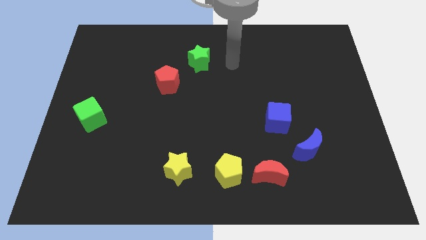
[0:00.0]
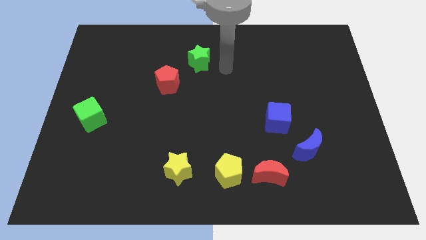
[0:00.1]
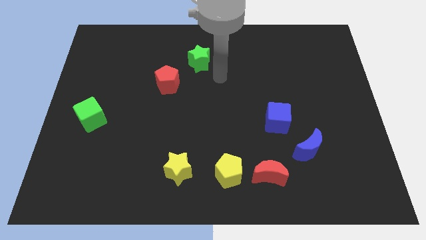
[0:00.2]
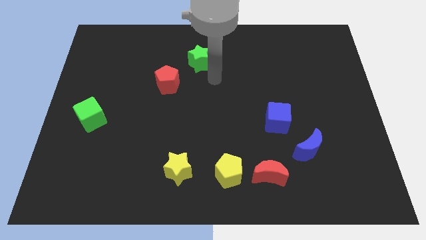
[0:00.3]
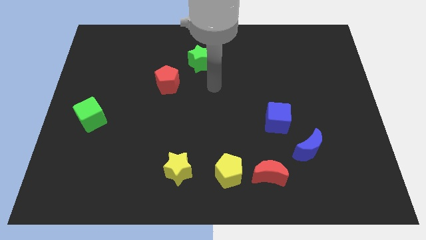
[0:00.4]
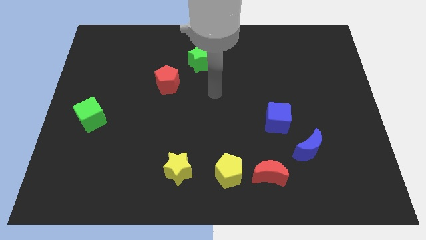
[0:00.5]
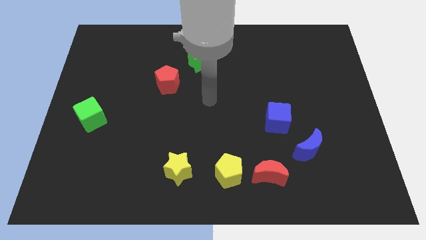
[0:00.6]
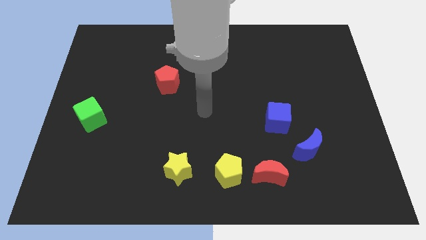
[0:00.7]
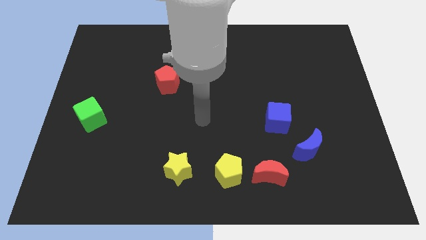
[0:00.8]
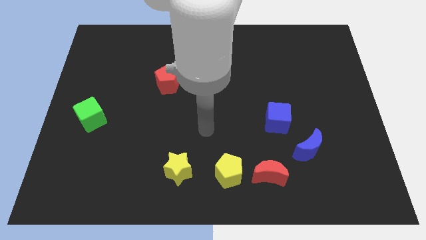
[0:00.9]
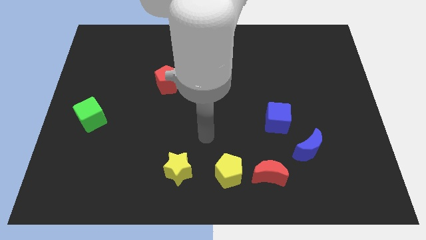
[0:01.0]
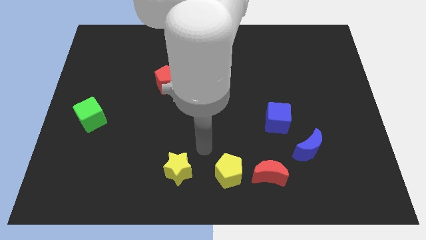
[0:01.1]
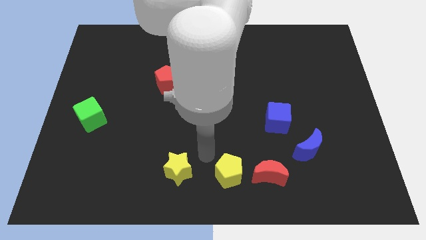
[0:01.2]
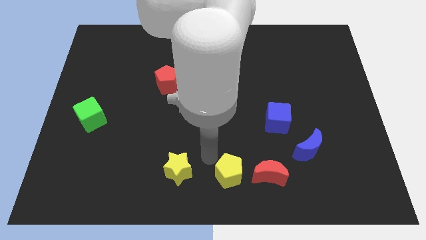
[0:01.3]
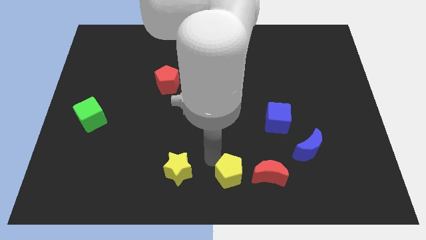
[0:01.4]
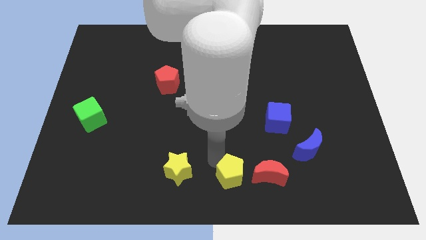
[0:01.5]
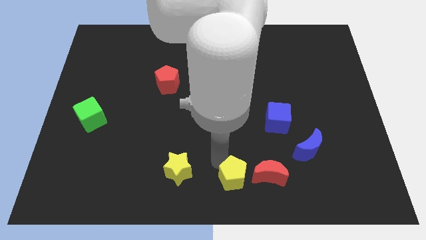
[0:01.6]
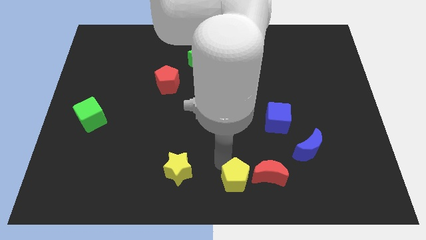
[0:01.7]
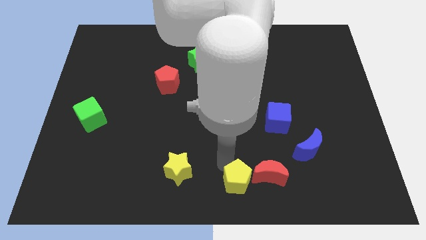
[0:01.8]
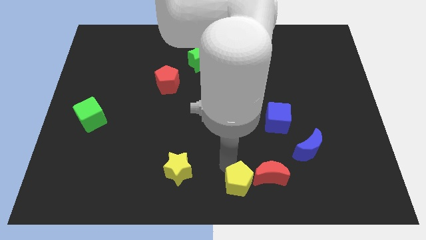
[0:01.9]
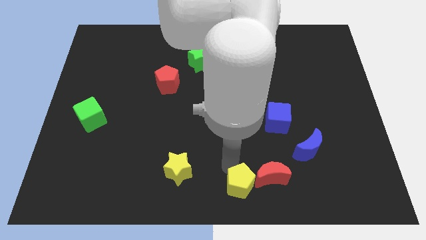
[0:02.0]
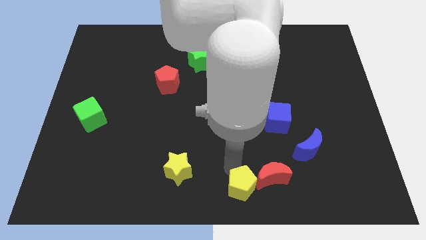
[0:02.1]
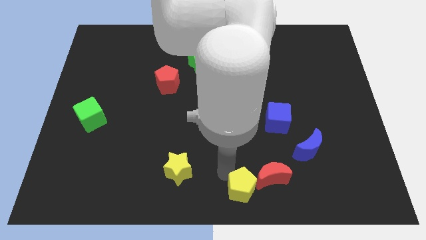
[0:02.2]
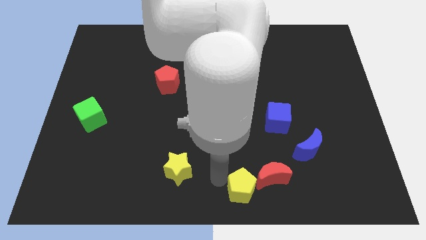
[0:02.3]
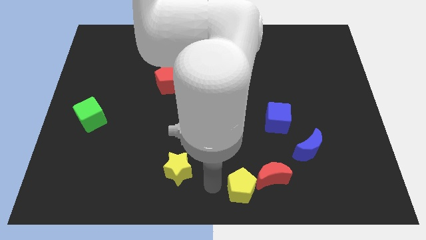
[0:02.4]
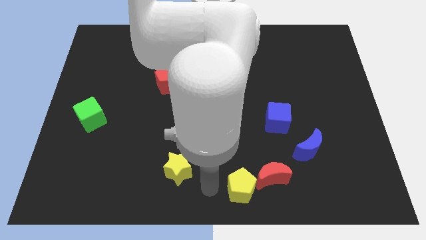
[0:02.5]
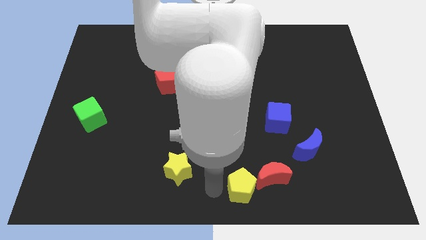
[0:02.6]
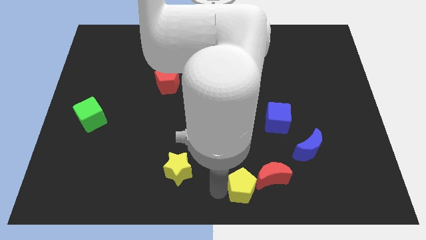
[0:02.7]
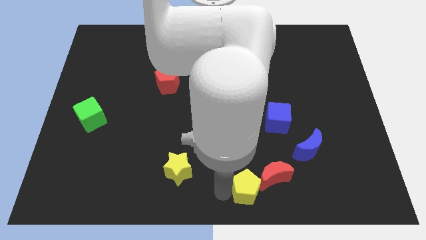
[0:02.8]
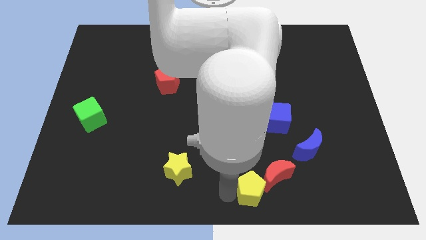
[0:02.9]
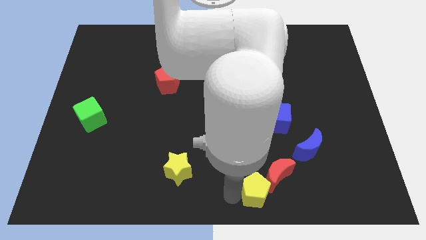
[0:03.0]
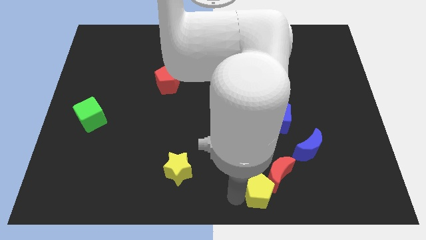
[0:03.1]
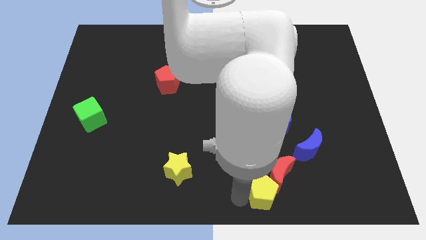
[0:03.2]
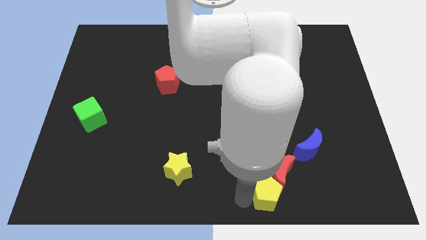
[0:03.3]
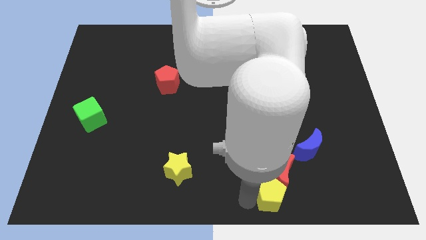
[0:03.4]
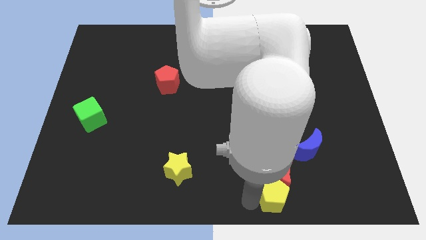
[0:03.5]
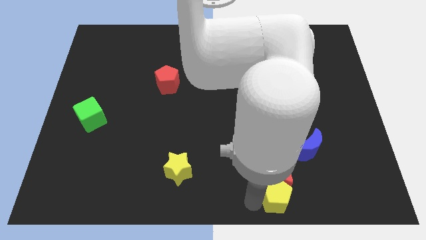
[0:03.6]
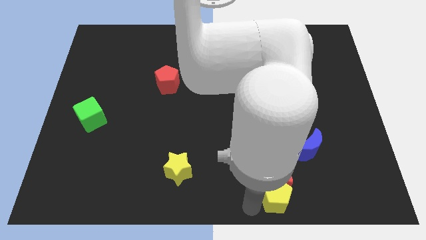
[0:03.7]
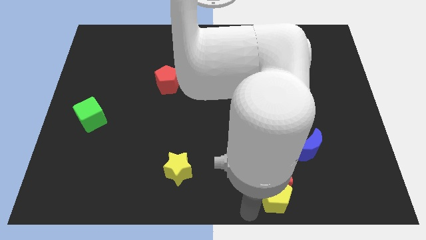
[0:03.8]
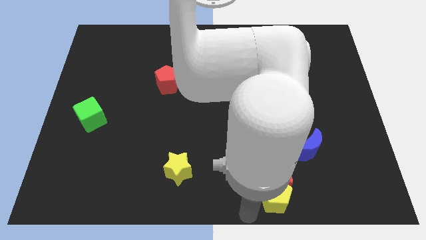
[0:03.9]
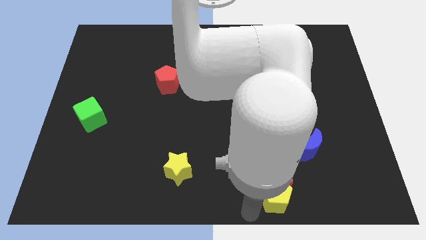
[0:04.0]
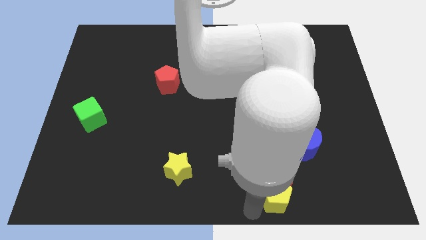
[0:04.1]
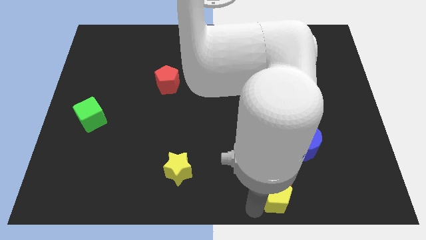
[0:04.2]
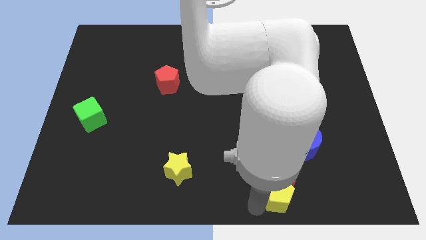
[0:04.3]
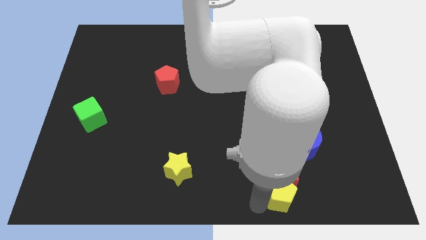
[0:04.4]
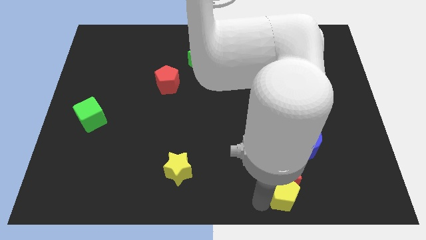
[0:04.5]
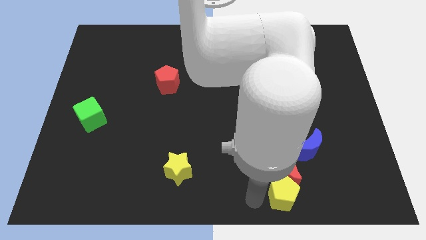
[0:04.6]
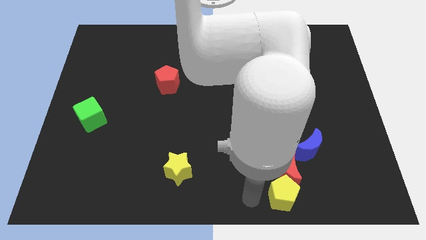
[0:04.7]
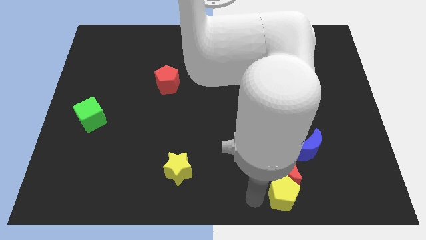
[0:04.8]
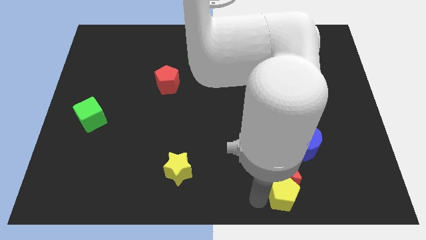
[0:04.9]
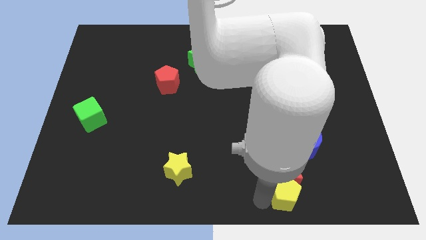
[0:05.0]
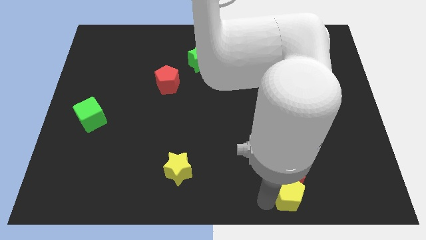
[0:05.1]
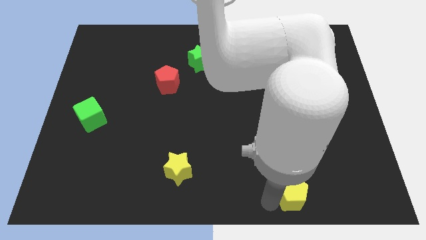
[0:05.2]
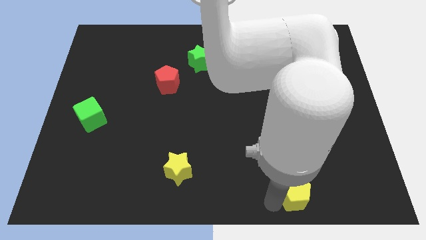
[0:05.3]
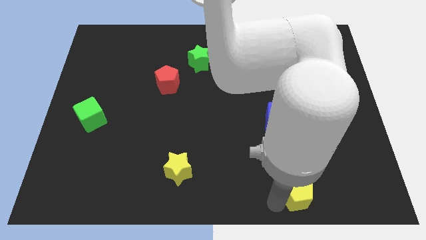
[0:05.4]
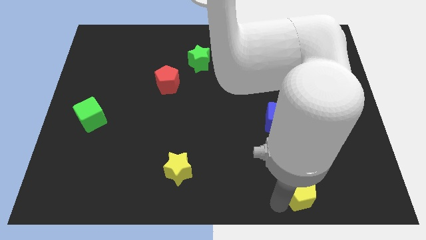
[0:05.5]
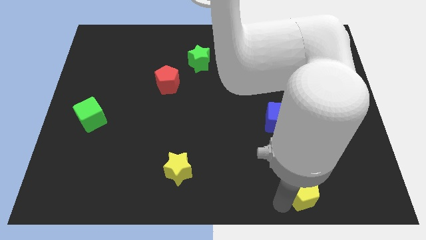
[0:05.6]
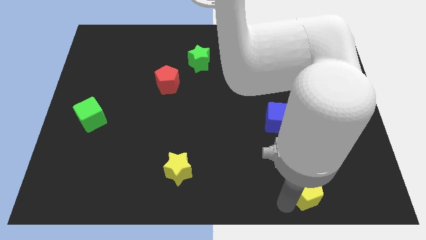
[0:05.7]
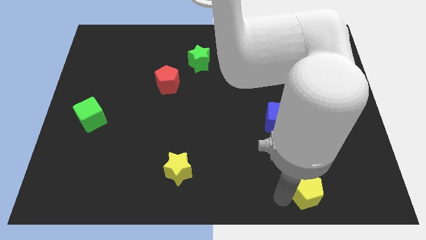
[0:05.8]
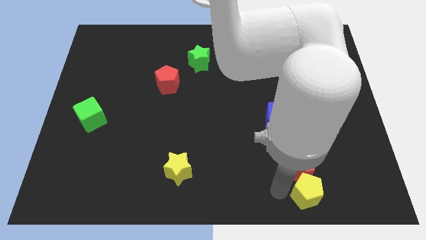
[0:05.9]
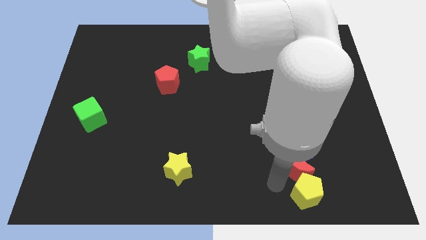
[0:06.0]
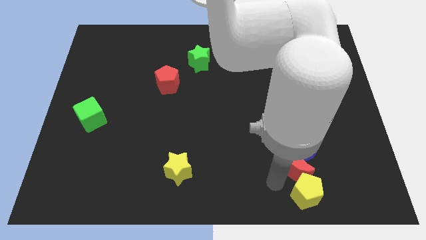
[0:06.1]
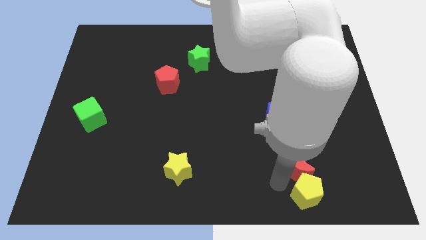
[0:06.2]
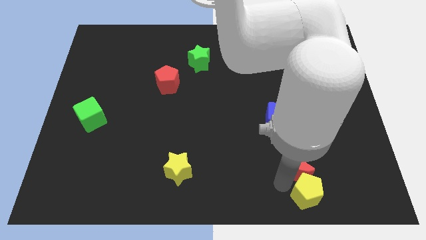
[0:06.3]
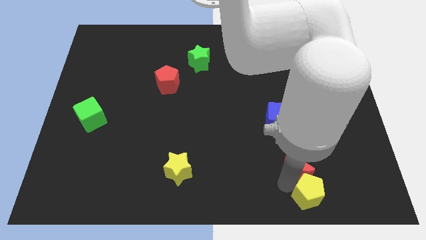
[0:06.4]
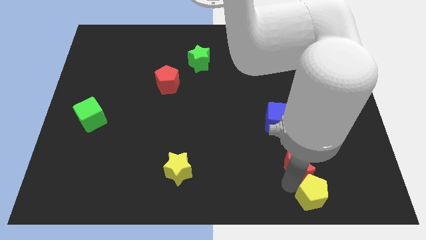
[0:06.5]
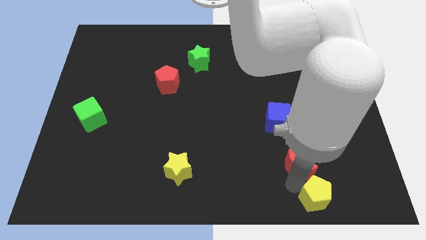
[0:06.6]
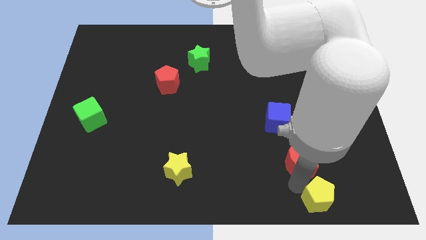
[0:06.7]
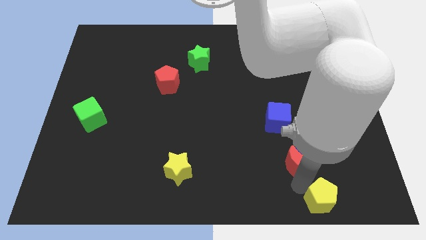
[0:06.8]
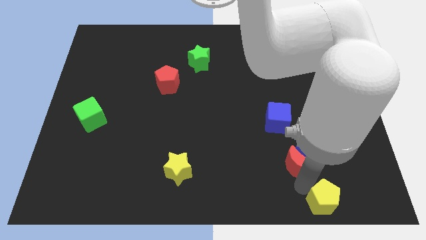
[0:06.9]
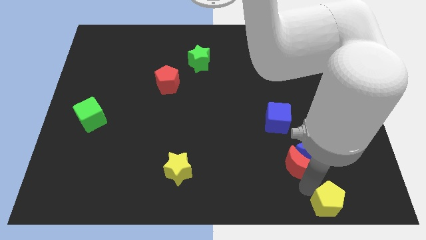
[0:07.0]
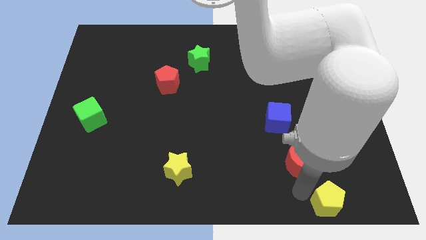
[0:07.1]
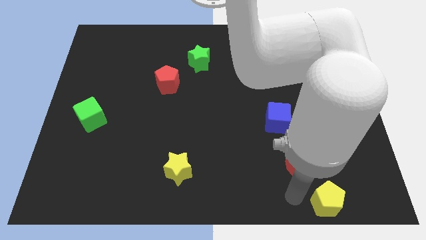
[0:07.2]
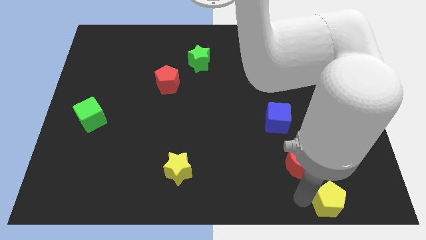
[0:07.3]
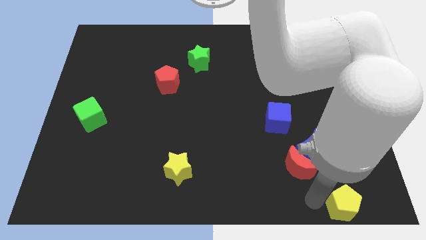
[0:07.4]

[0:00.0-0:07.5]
push the yellow pentagon to the bottom right corner
